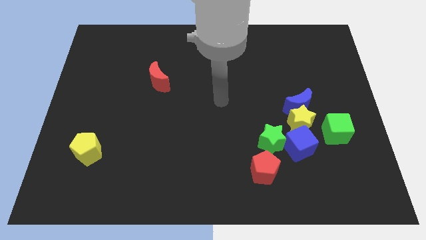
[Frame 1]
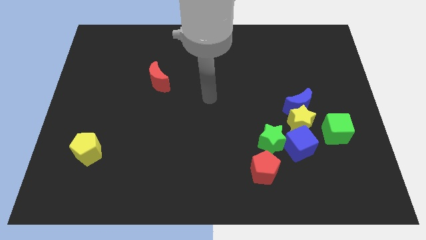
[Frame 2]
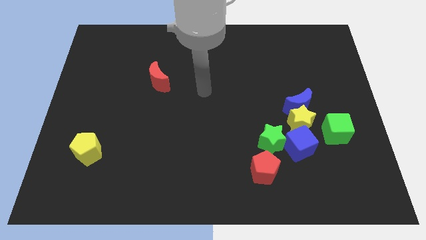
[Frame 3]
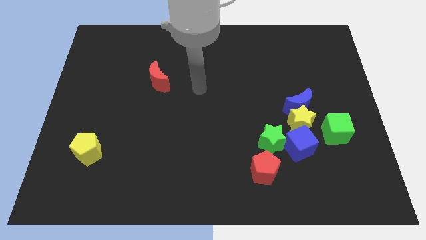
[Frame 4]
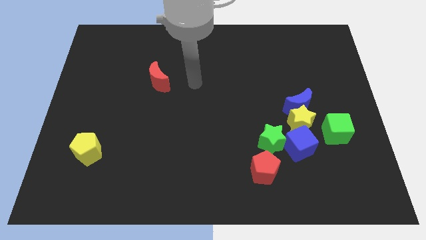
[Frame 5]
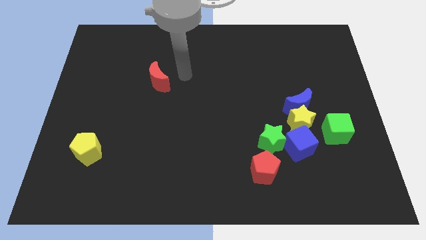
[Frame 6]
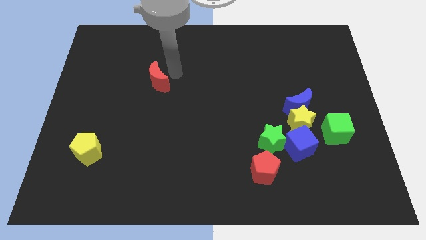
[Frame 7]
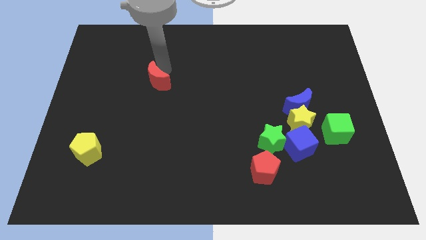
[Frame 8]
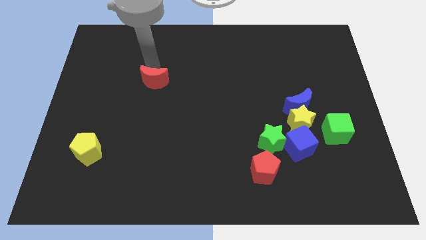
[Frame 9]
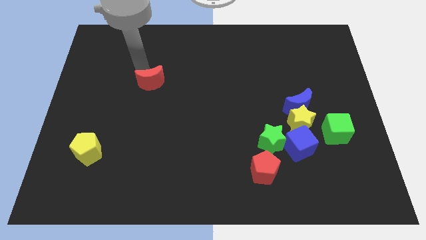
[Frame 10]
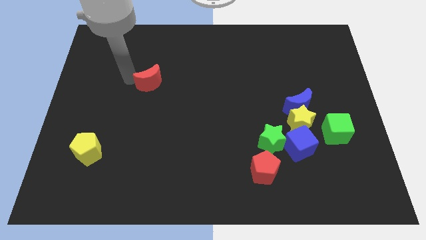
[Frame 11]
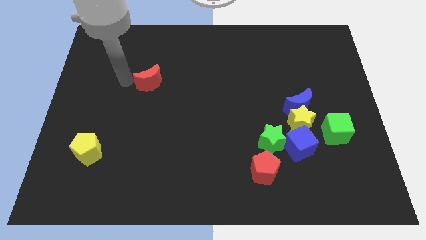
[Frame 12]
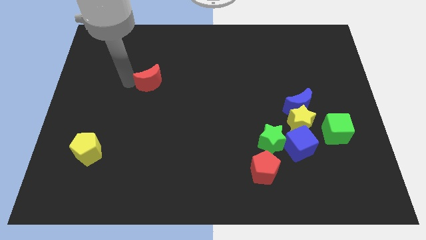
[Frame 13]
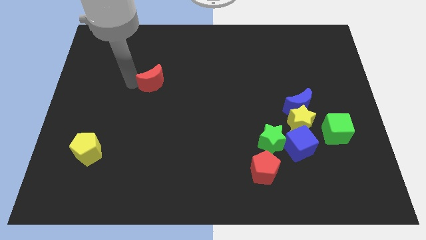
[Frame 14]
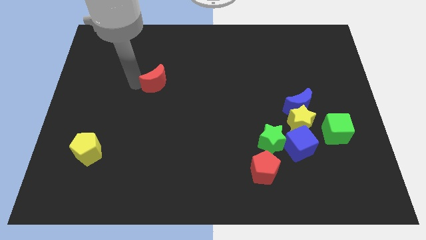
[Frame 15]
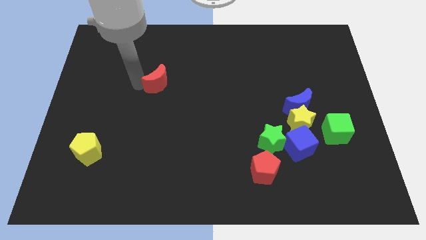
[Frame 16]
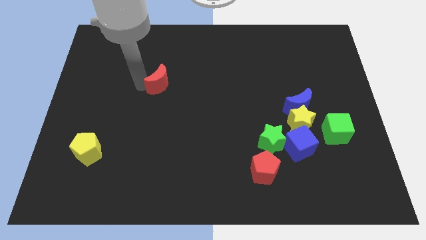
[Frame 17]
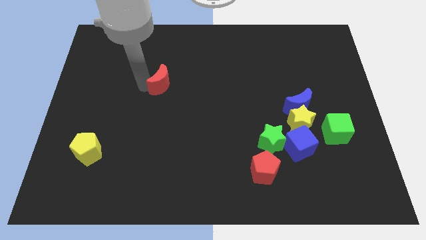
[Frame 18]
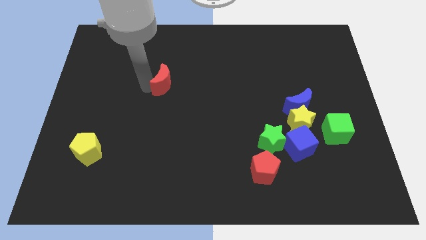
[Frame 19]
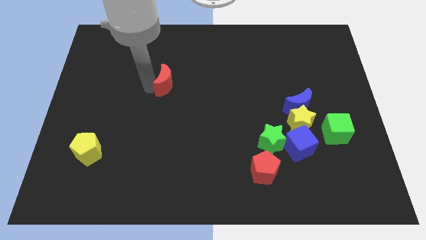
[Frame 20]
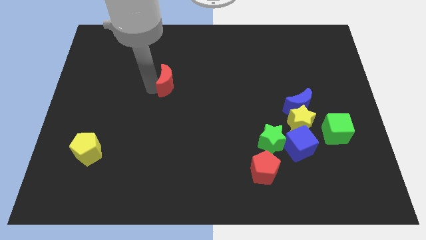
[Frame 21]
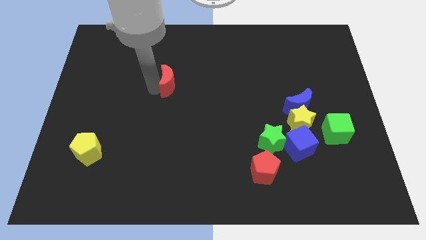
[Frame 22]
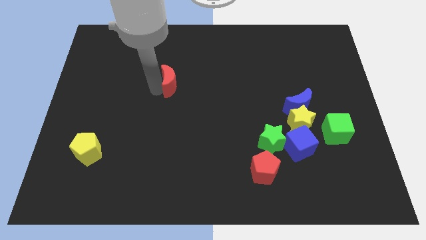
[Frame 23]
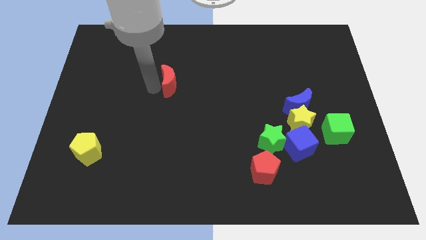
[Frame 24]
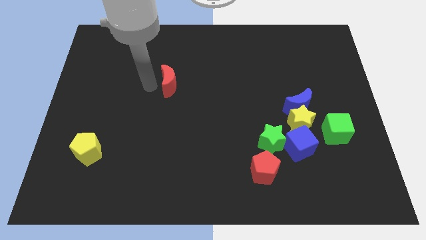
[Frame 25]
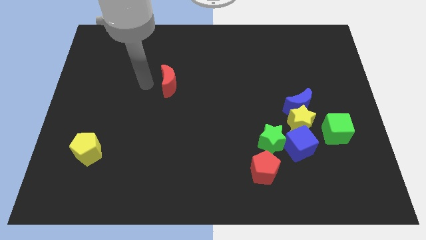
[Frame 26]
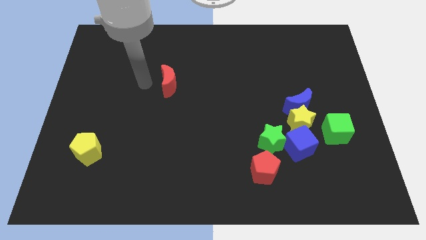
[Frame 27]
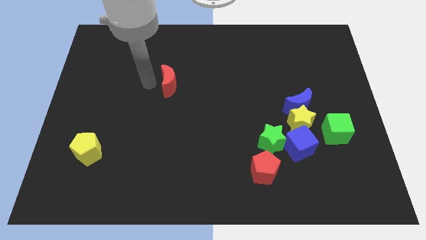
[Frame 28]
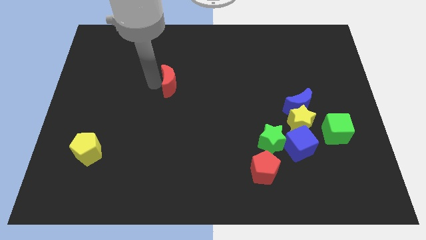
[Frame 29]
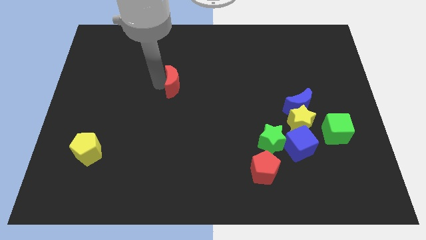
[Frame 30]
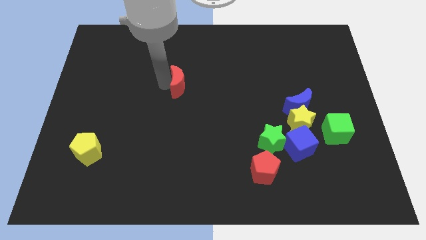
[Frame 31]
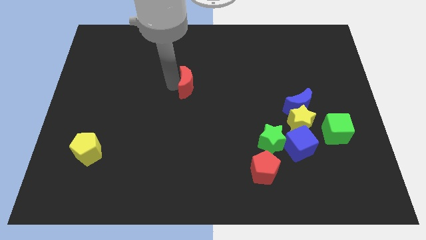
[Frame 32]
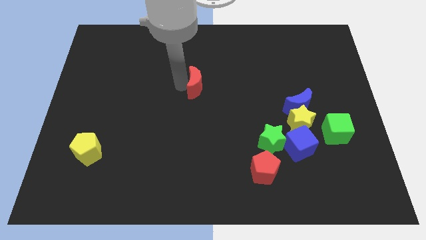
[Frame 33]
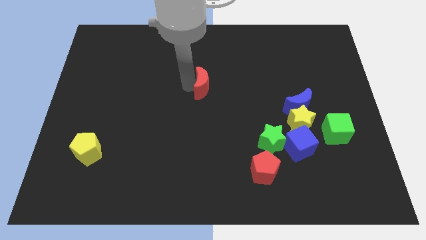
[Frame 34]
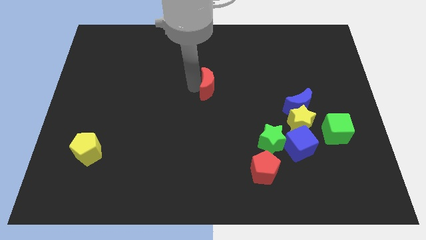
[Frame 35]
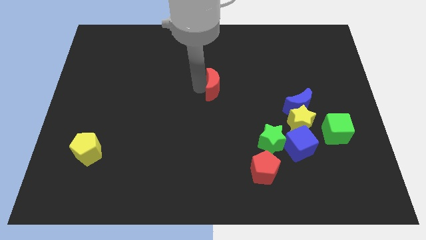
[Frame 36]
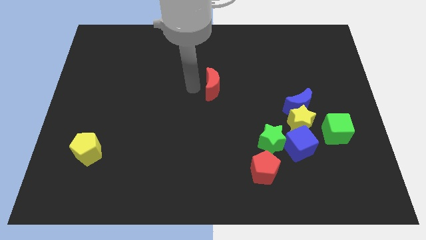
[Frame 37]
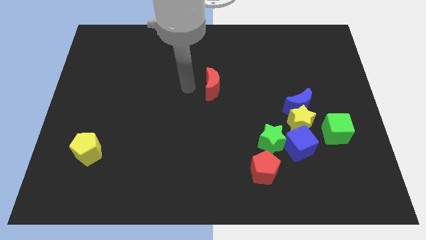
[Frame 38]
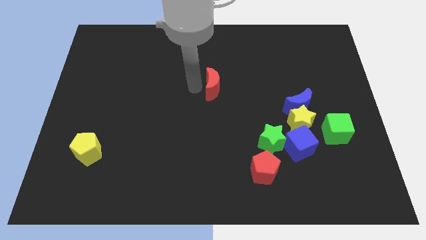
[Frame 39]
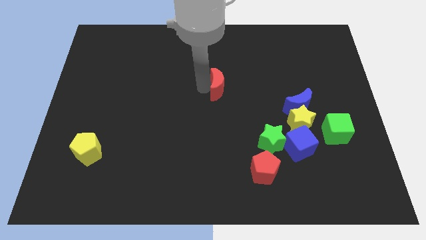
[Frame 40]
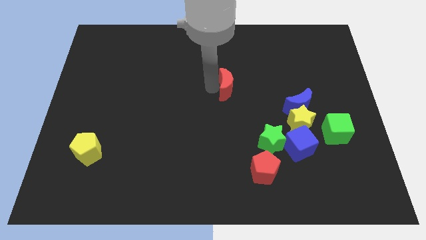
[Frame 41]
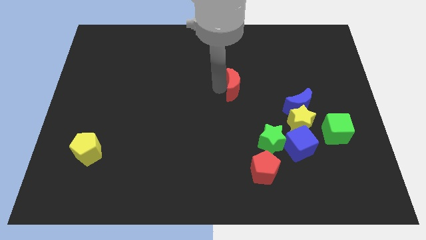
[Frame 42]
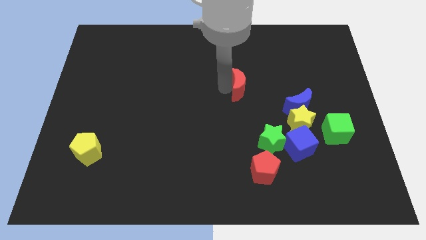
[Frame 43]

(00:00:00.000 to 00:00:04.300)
slide the red moon to the right

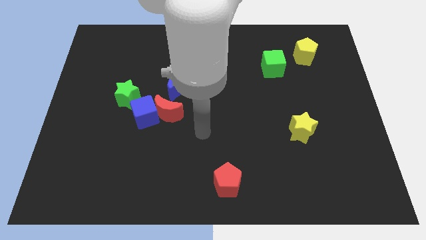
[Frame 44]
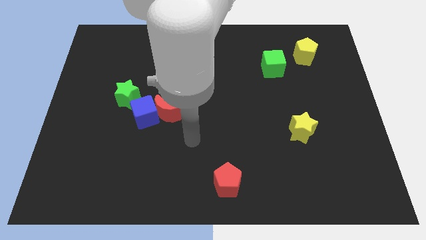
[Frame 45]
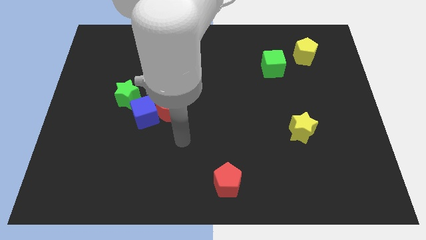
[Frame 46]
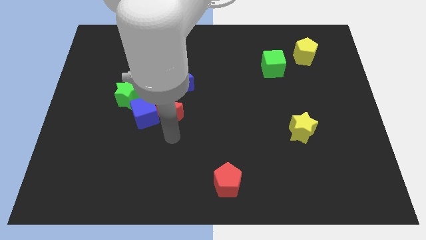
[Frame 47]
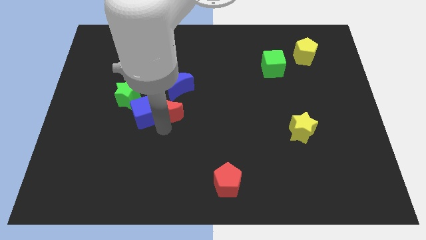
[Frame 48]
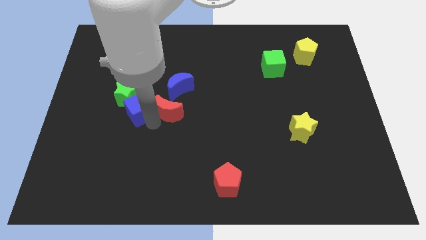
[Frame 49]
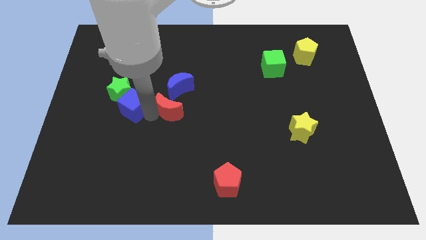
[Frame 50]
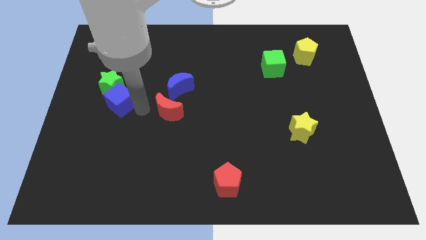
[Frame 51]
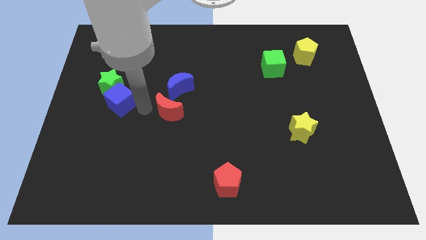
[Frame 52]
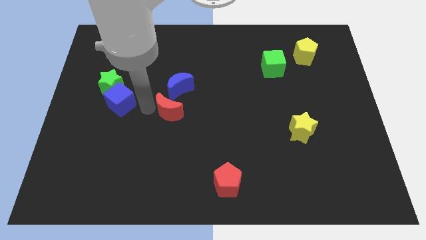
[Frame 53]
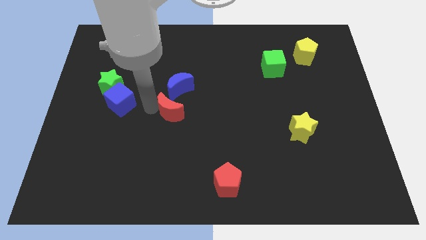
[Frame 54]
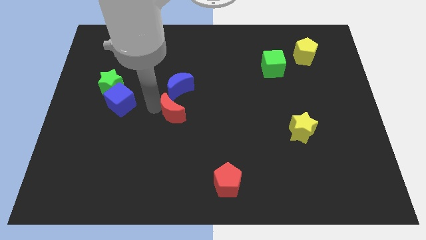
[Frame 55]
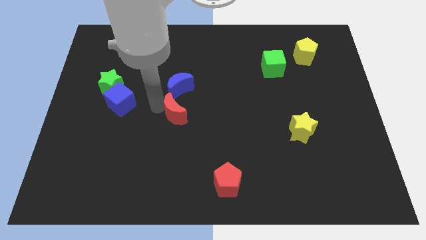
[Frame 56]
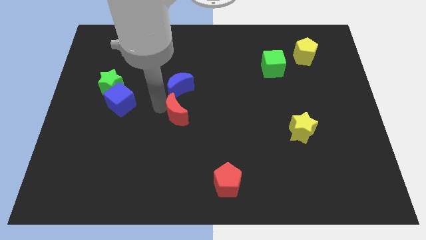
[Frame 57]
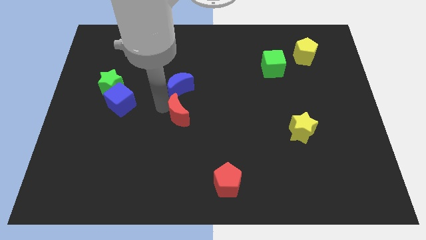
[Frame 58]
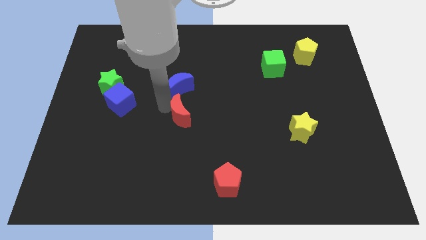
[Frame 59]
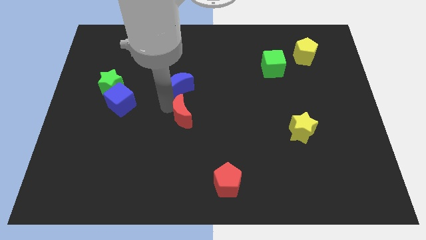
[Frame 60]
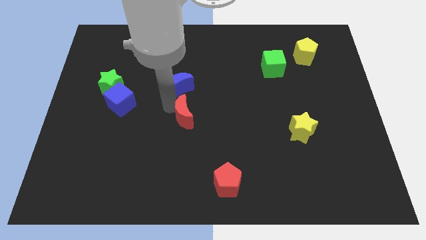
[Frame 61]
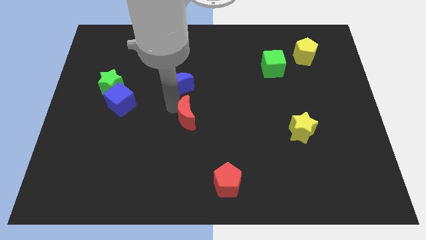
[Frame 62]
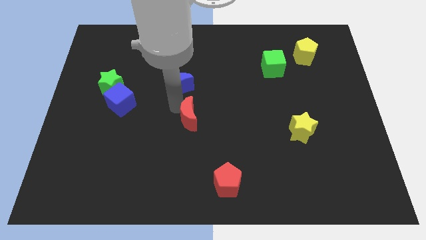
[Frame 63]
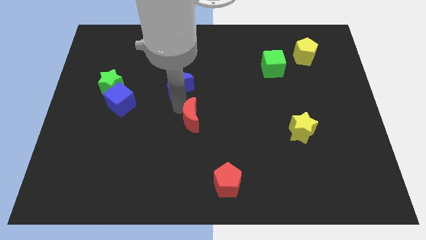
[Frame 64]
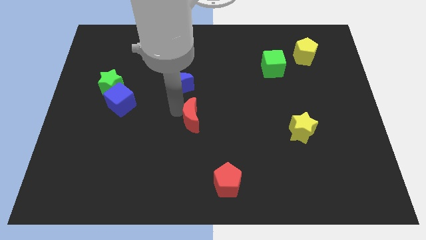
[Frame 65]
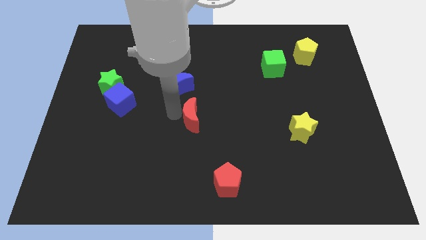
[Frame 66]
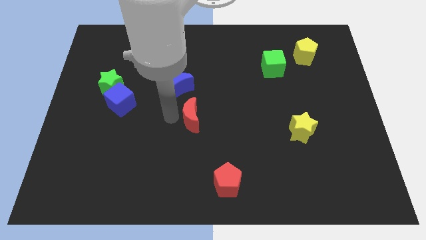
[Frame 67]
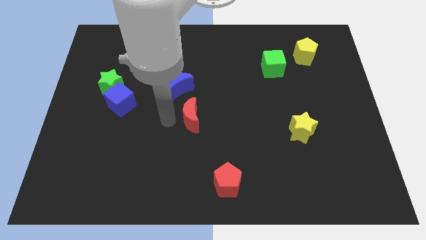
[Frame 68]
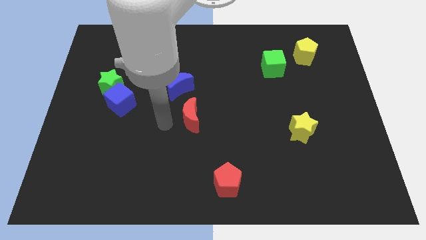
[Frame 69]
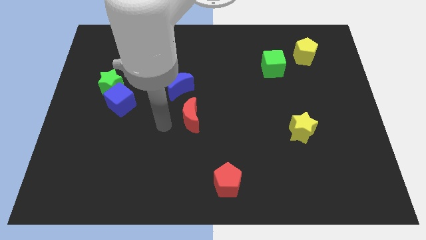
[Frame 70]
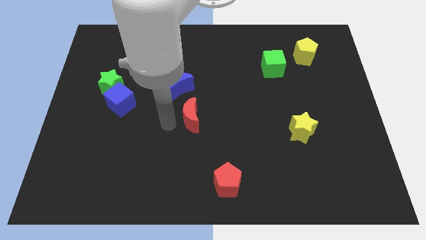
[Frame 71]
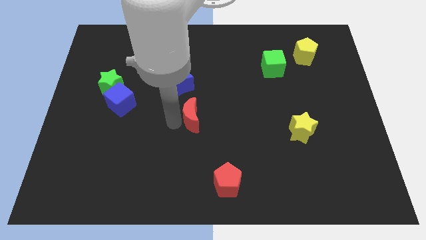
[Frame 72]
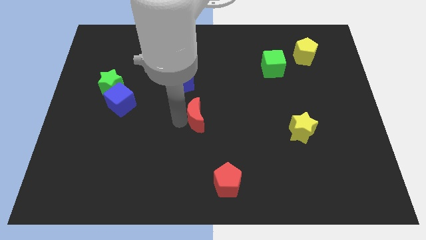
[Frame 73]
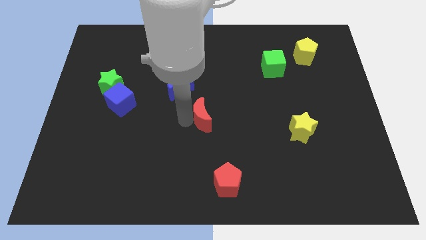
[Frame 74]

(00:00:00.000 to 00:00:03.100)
slightly move the red moon right

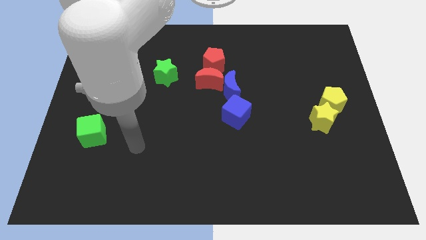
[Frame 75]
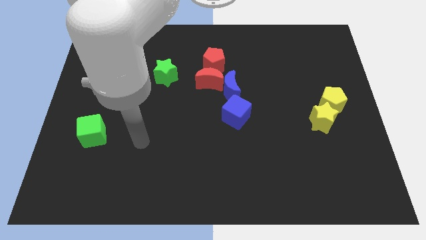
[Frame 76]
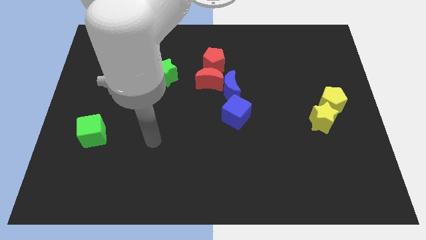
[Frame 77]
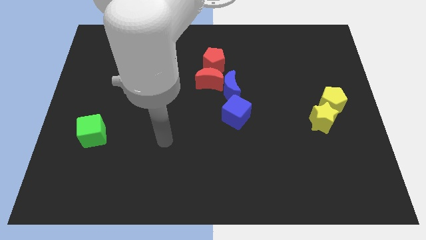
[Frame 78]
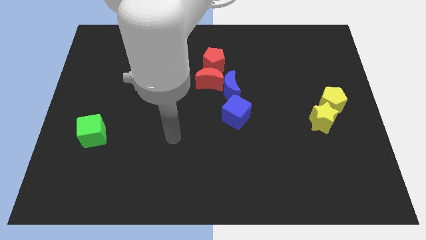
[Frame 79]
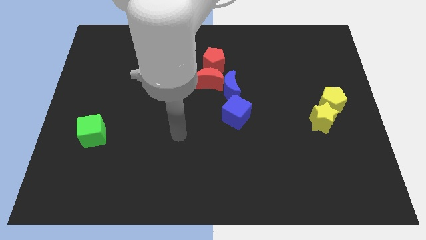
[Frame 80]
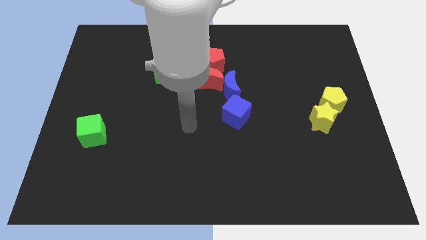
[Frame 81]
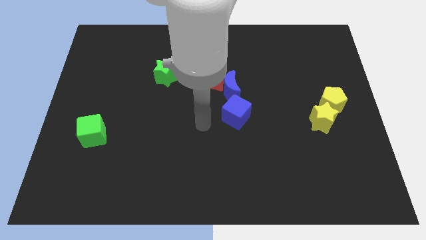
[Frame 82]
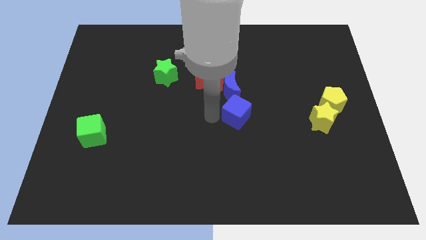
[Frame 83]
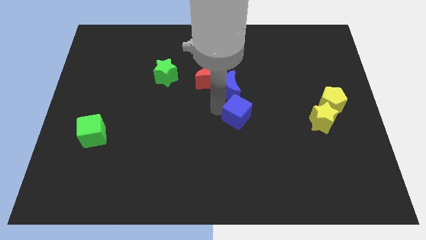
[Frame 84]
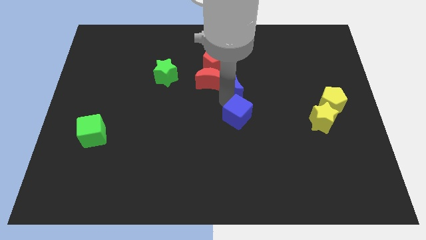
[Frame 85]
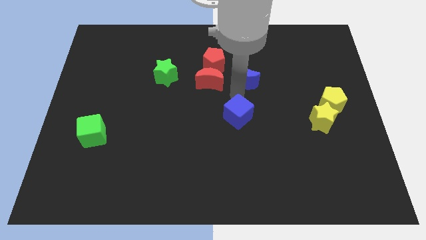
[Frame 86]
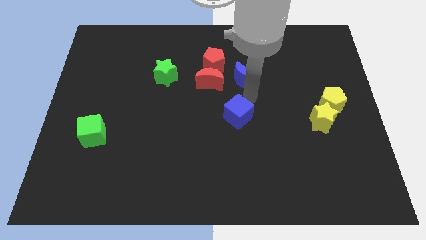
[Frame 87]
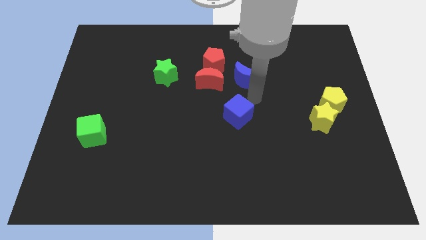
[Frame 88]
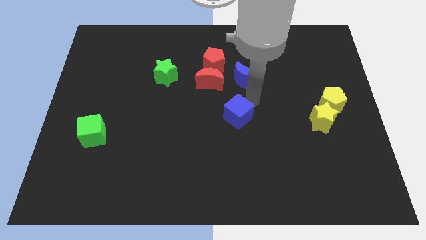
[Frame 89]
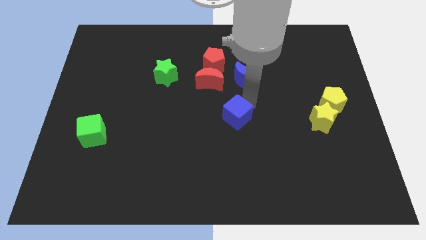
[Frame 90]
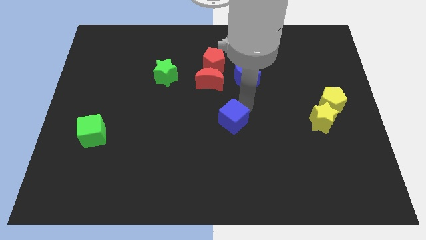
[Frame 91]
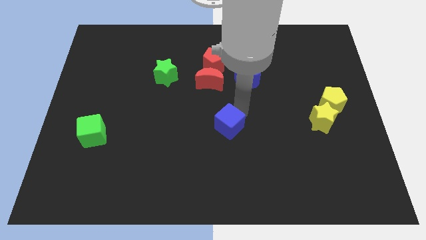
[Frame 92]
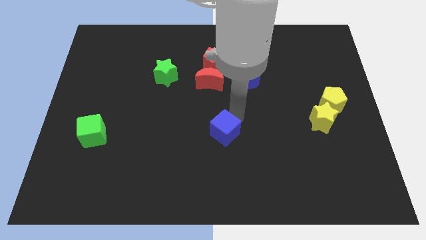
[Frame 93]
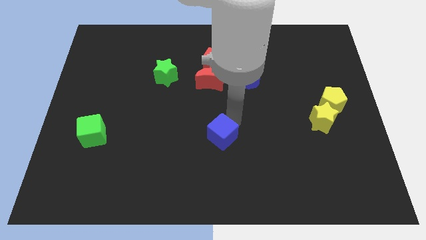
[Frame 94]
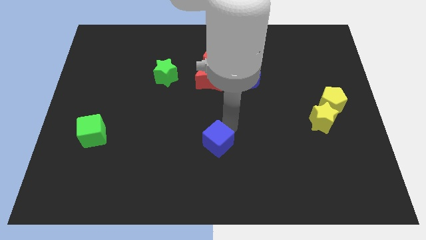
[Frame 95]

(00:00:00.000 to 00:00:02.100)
slide the blue cube downwards and left diagonally somewhat
